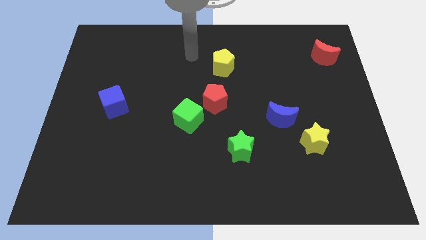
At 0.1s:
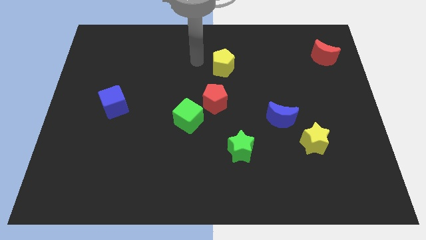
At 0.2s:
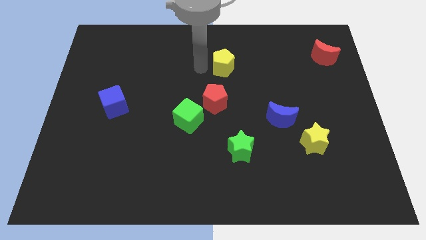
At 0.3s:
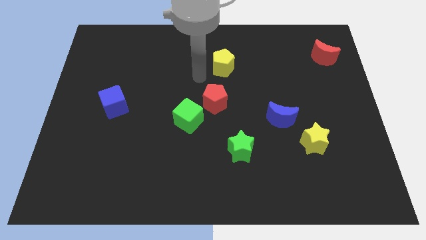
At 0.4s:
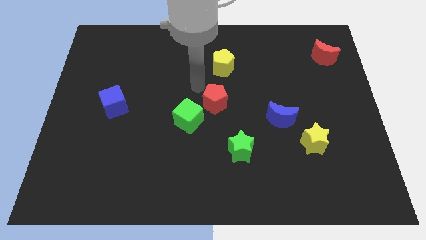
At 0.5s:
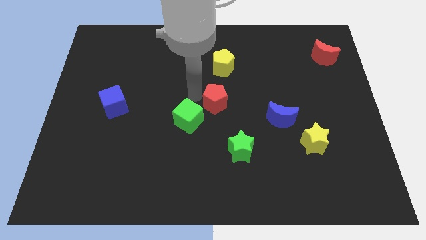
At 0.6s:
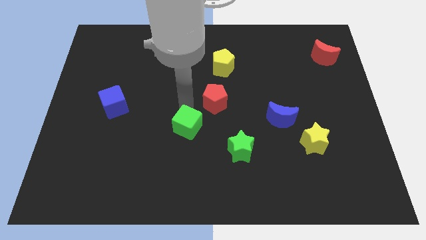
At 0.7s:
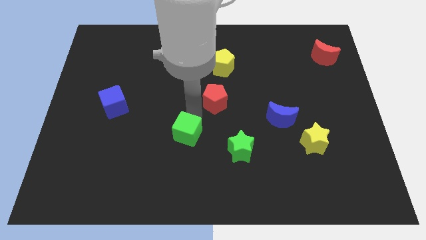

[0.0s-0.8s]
separate the red pentagon from the green cube

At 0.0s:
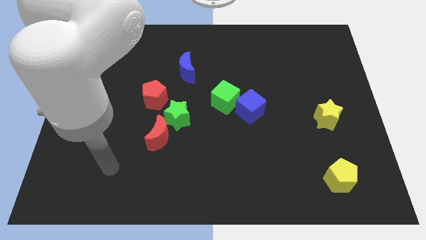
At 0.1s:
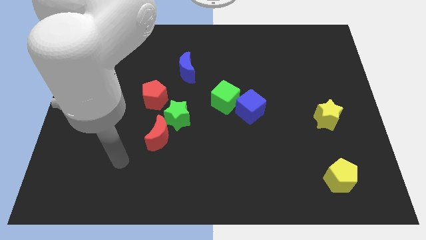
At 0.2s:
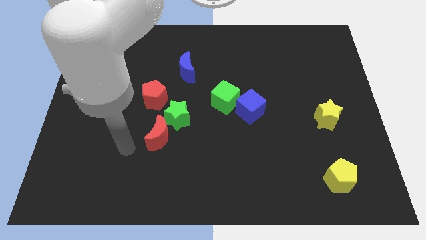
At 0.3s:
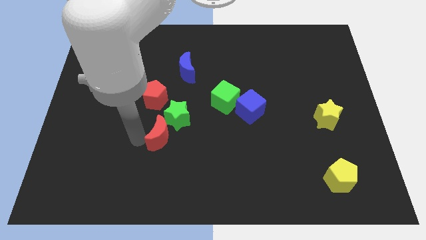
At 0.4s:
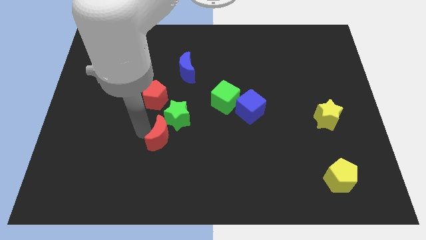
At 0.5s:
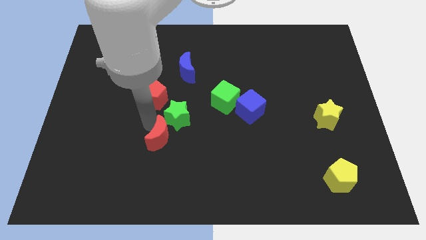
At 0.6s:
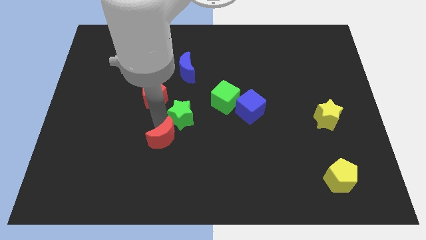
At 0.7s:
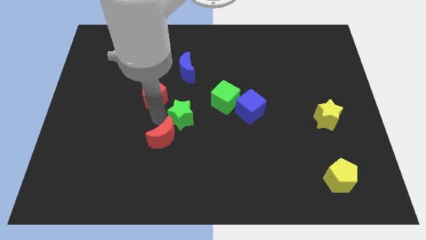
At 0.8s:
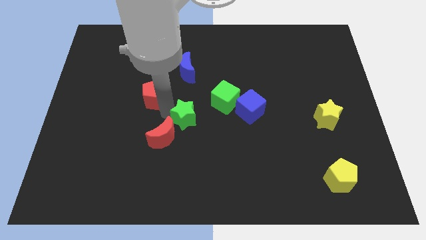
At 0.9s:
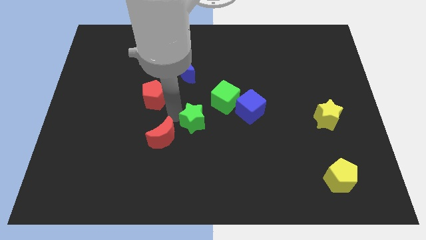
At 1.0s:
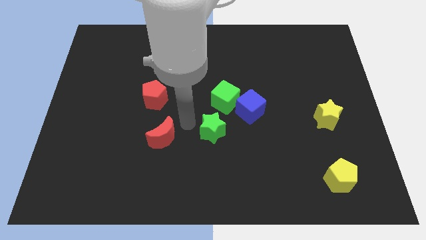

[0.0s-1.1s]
separate the red moon from the green star

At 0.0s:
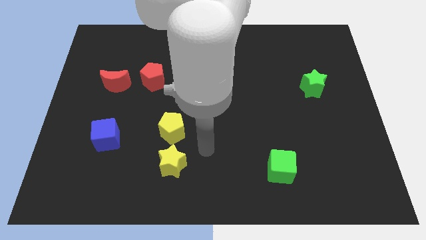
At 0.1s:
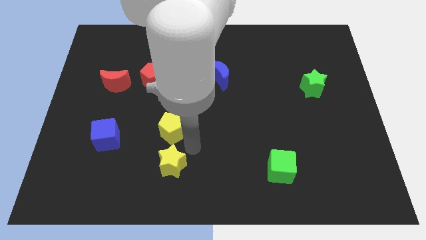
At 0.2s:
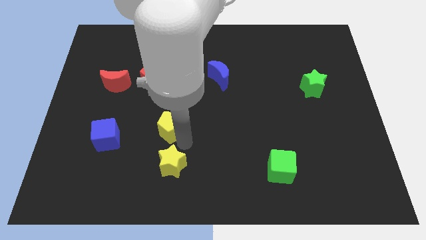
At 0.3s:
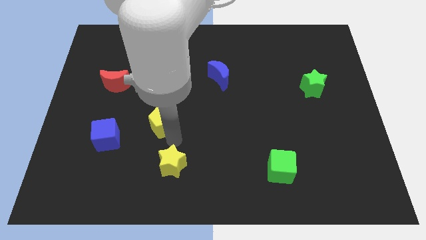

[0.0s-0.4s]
pull the yellow star apart from the yellow pentagon

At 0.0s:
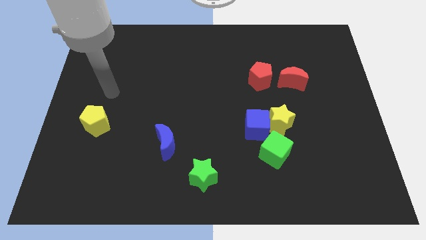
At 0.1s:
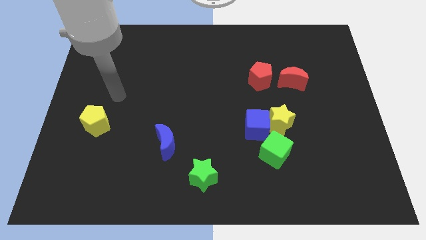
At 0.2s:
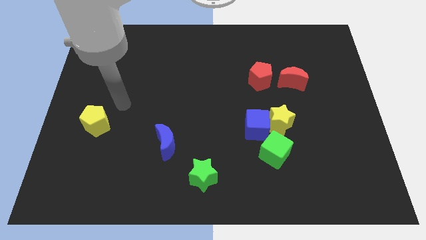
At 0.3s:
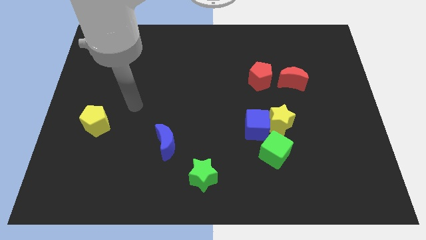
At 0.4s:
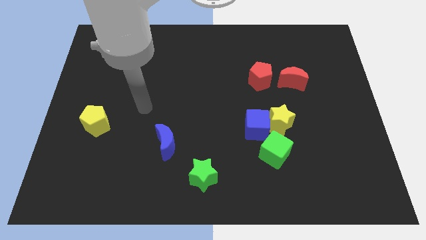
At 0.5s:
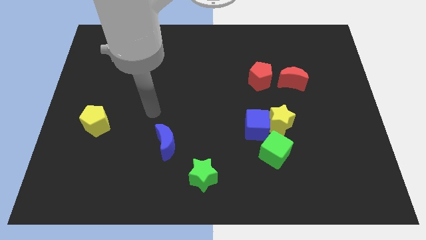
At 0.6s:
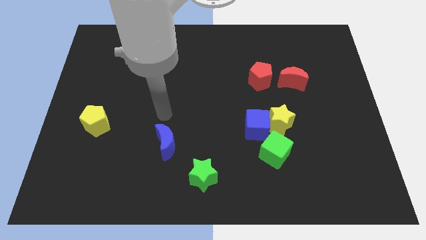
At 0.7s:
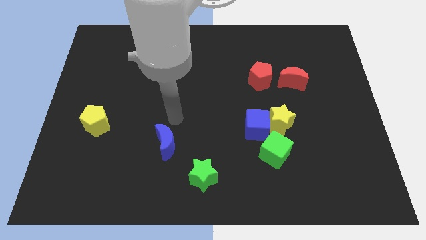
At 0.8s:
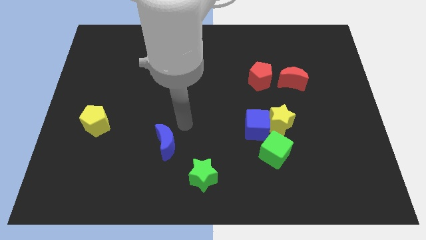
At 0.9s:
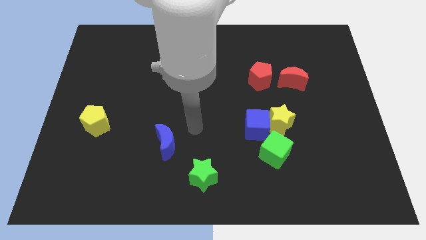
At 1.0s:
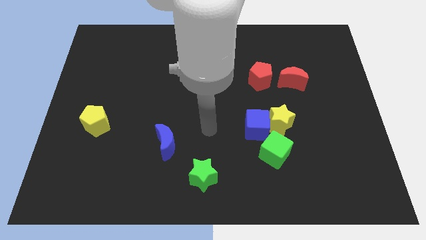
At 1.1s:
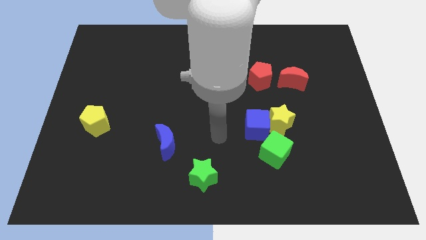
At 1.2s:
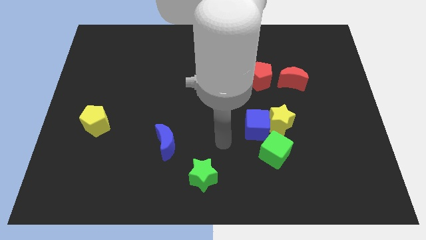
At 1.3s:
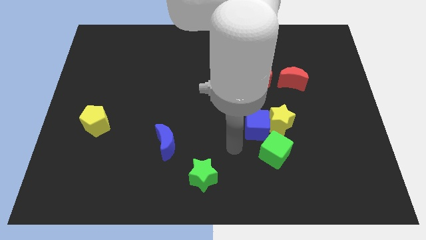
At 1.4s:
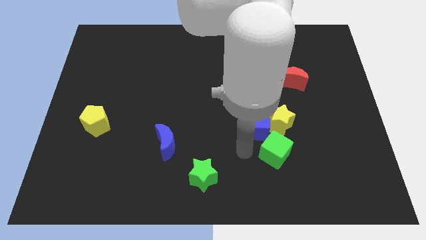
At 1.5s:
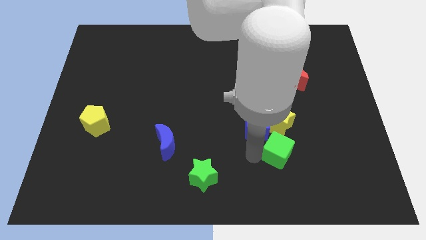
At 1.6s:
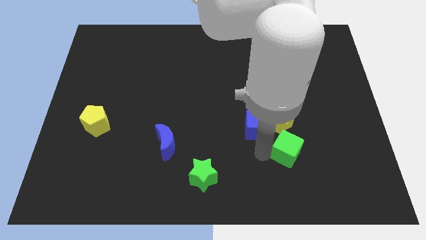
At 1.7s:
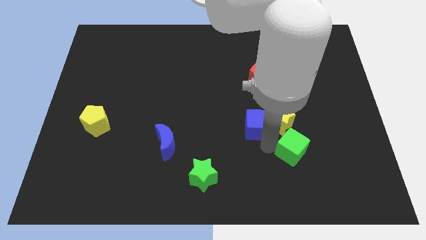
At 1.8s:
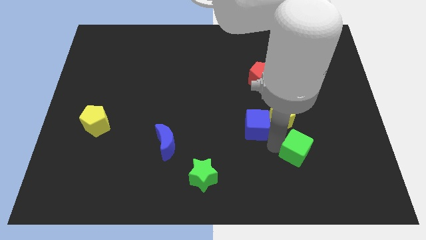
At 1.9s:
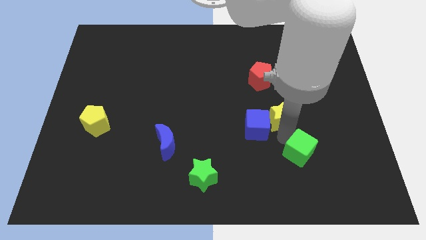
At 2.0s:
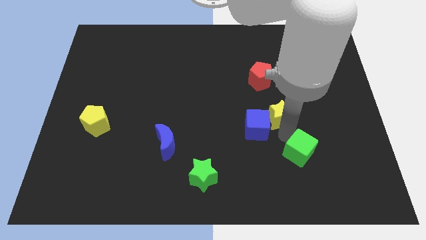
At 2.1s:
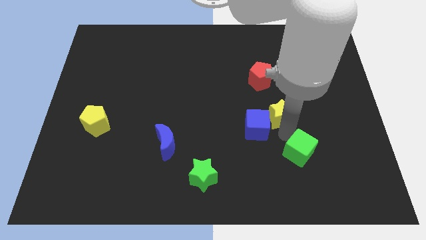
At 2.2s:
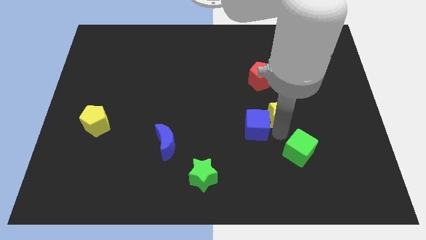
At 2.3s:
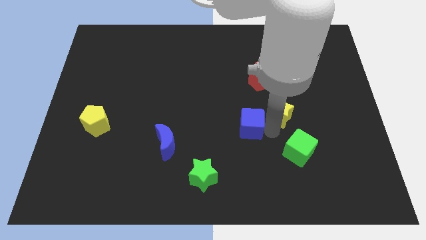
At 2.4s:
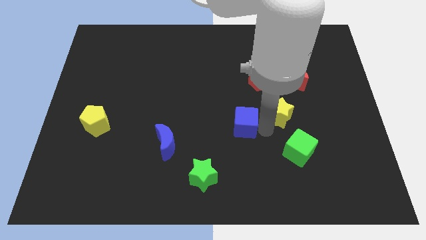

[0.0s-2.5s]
move the blue cube away from the yellow star and green cube

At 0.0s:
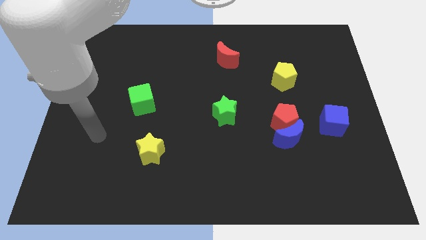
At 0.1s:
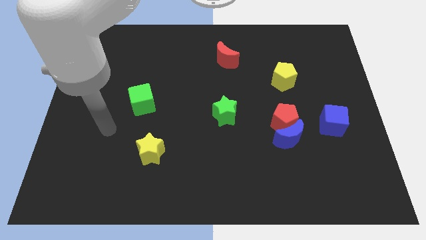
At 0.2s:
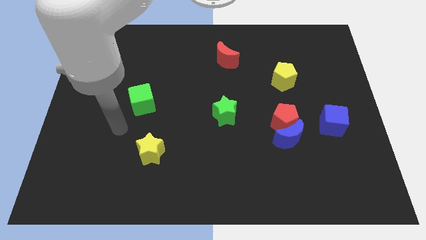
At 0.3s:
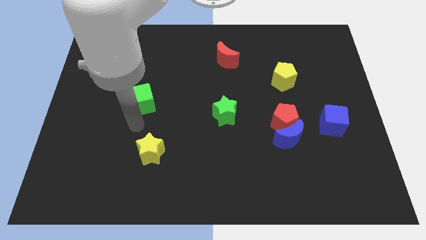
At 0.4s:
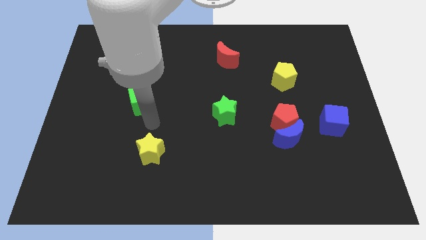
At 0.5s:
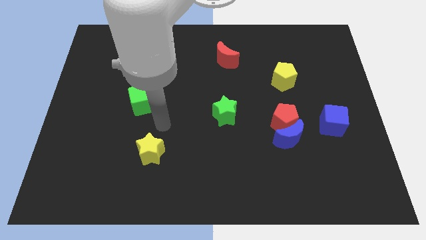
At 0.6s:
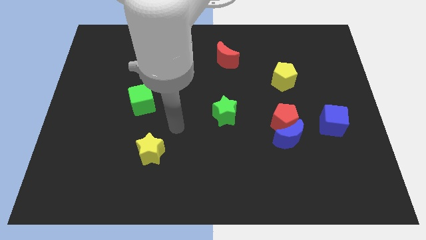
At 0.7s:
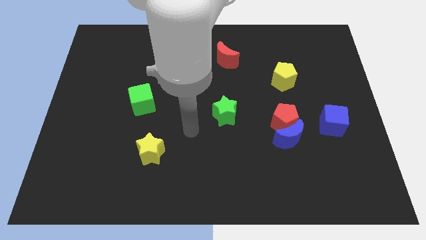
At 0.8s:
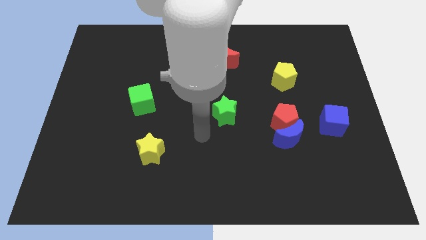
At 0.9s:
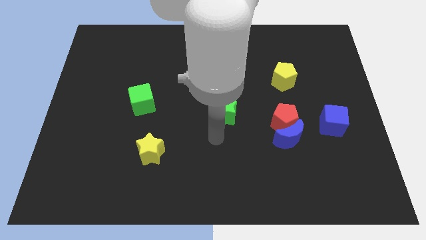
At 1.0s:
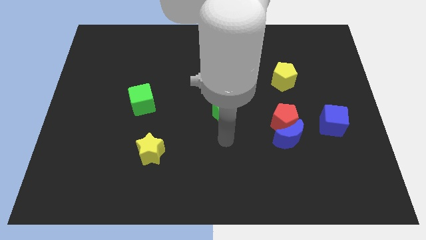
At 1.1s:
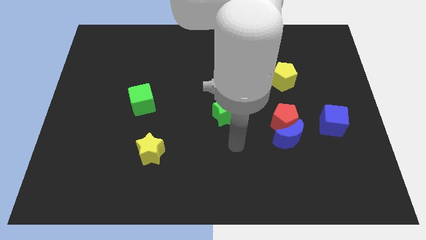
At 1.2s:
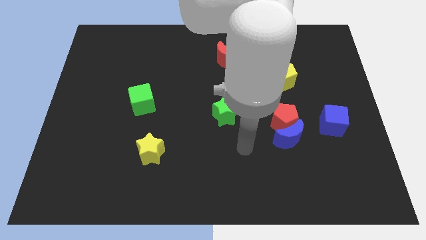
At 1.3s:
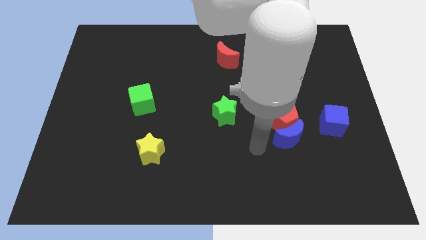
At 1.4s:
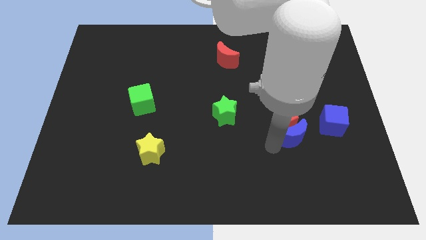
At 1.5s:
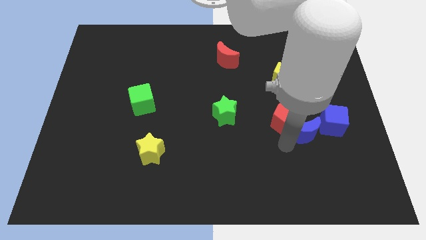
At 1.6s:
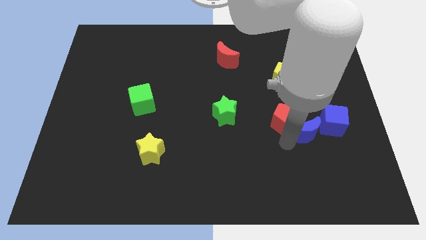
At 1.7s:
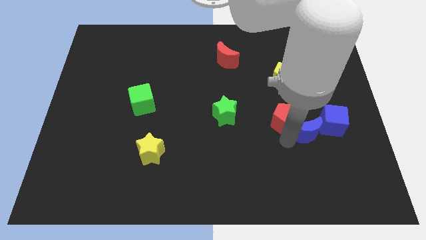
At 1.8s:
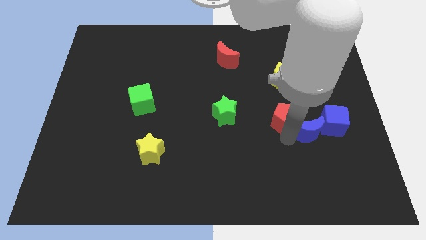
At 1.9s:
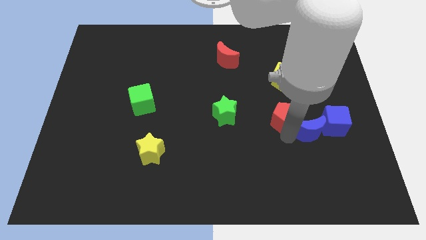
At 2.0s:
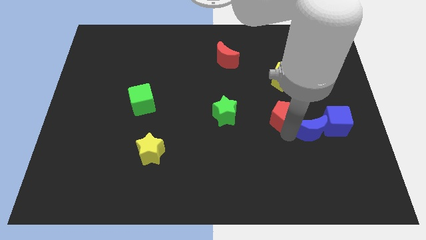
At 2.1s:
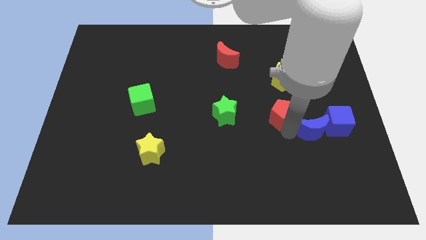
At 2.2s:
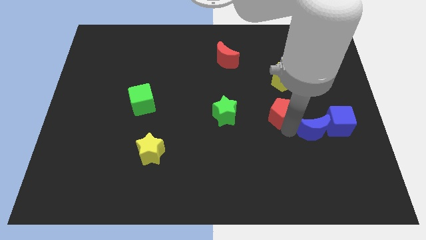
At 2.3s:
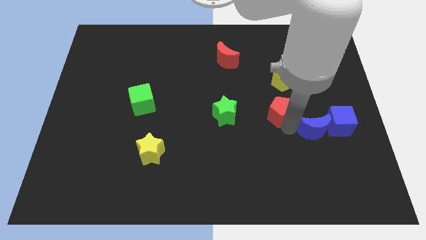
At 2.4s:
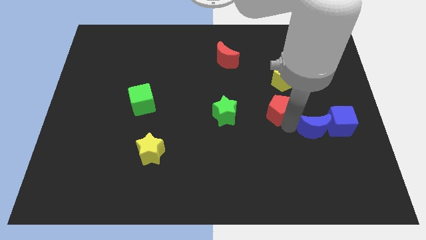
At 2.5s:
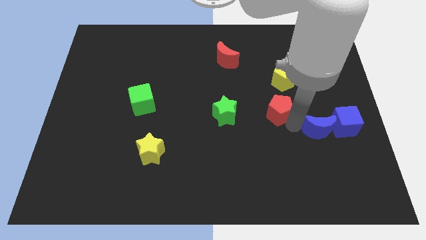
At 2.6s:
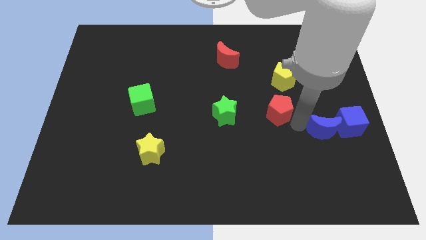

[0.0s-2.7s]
move the red pentagon away from the blue moon

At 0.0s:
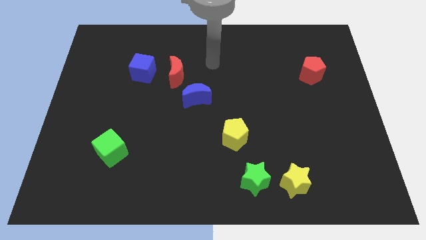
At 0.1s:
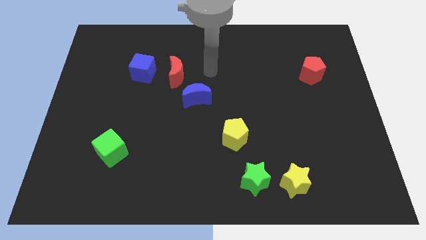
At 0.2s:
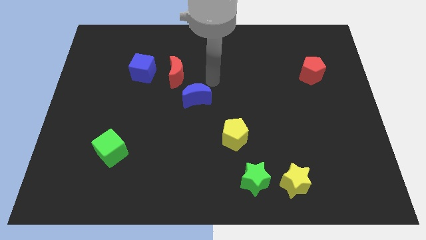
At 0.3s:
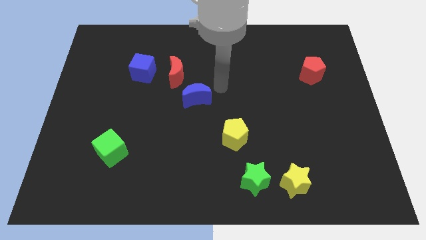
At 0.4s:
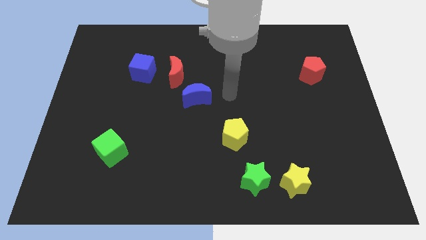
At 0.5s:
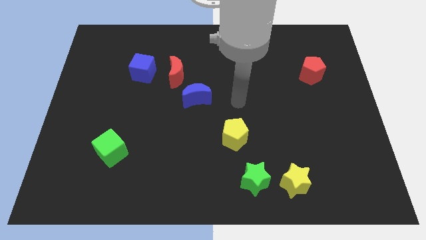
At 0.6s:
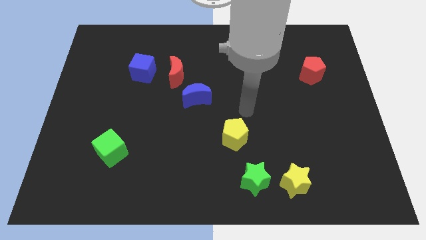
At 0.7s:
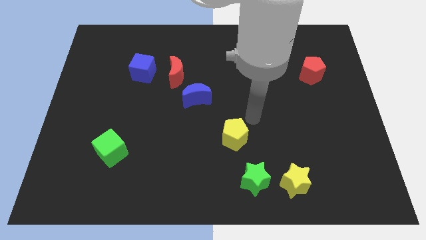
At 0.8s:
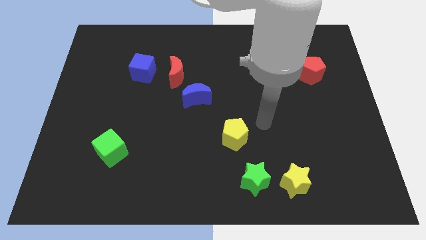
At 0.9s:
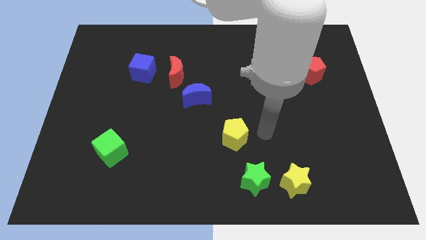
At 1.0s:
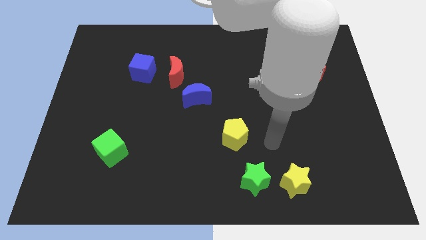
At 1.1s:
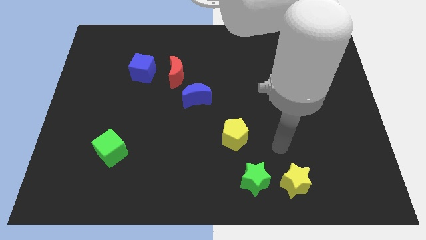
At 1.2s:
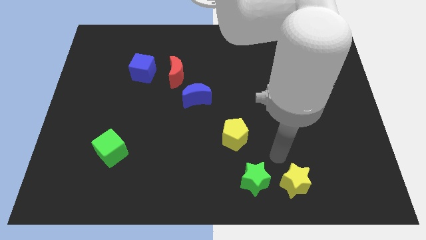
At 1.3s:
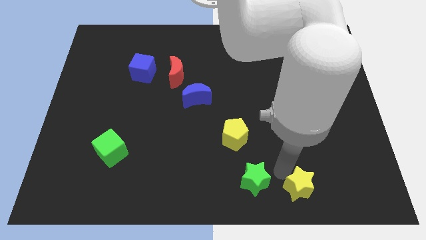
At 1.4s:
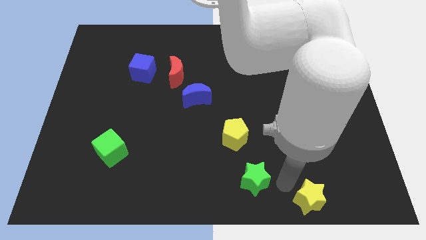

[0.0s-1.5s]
pull the green star apart from the yellow star

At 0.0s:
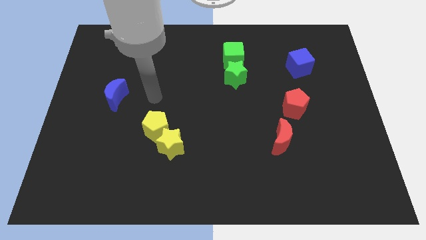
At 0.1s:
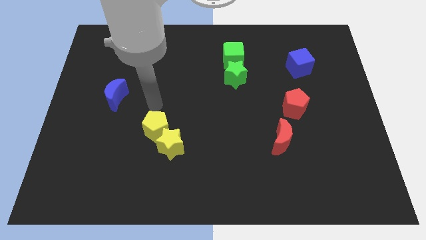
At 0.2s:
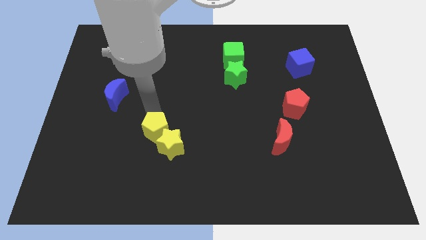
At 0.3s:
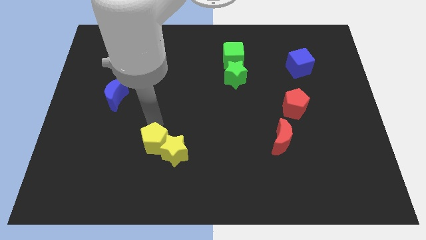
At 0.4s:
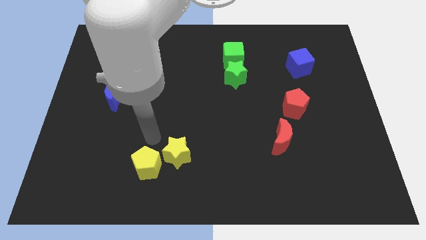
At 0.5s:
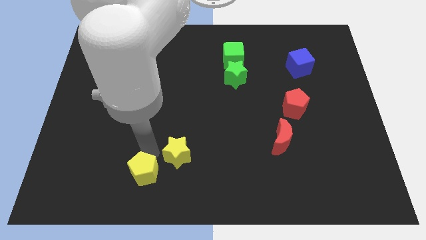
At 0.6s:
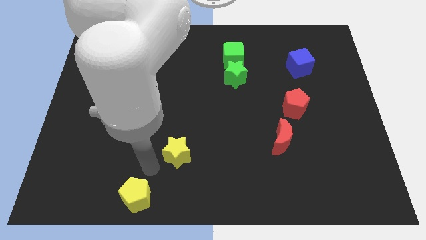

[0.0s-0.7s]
separate the yellow star from the yellow pentagon
